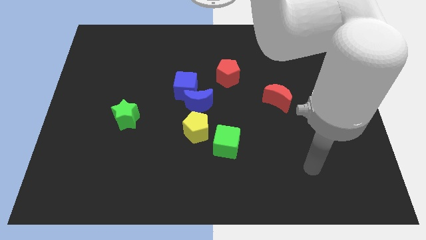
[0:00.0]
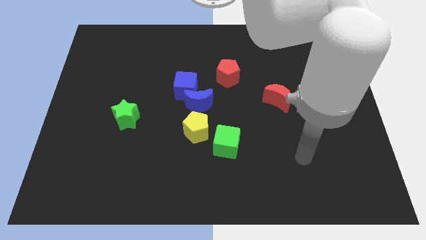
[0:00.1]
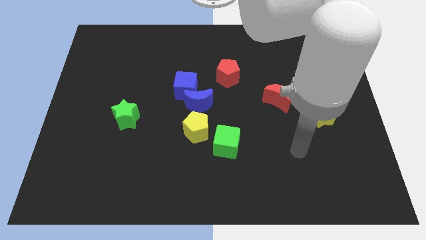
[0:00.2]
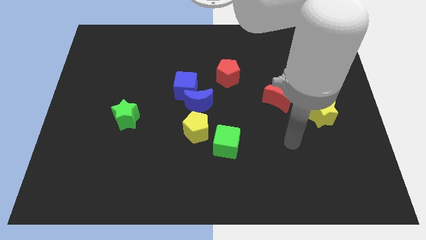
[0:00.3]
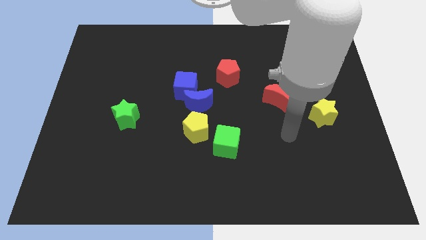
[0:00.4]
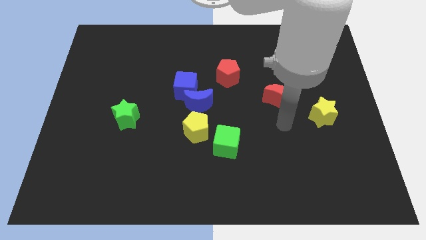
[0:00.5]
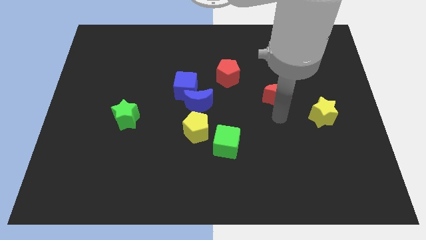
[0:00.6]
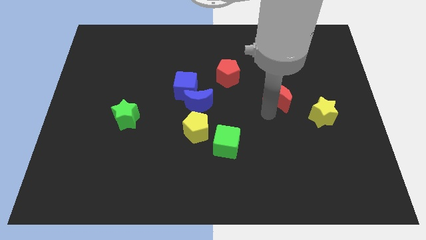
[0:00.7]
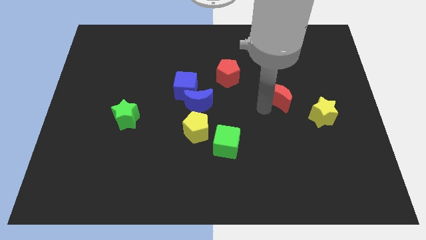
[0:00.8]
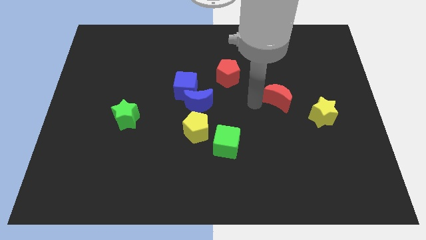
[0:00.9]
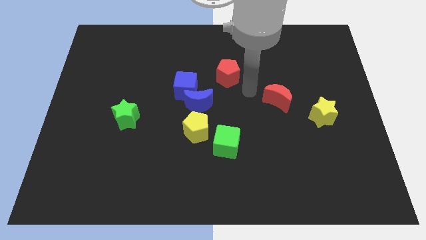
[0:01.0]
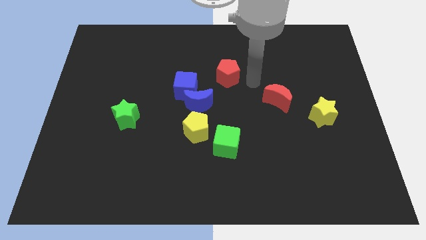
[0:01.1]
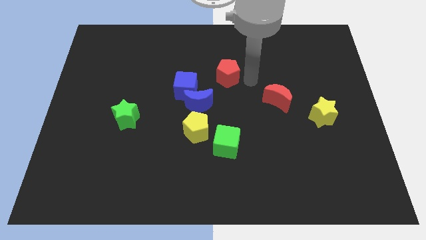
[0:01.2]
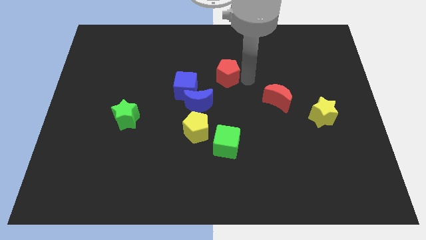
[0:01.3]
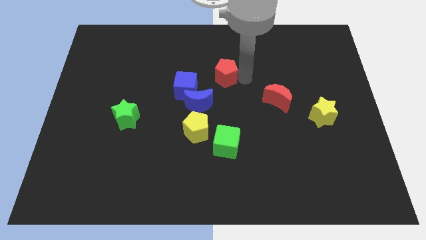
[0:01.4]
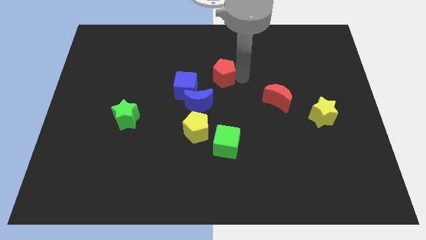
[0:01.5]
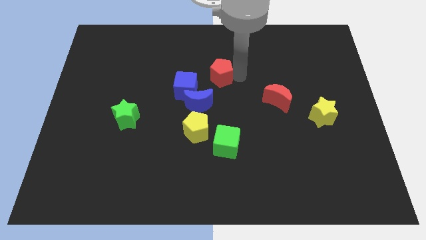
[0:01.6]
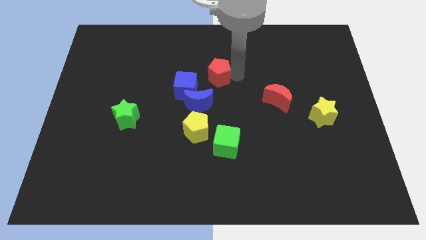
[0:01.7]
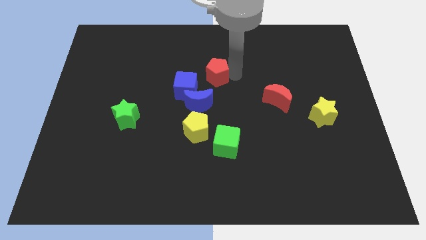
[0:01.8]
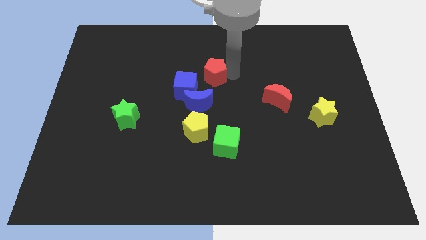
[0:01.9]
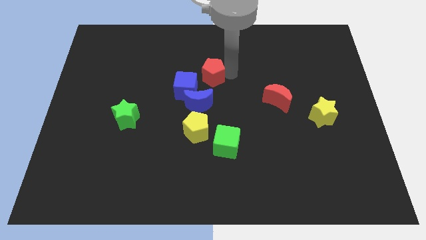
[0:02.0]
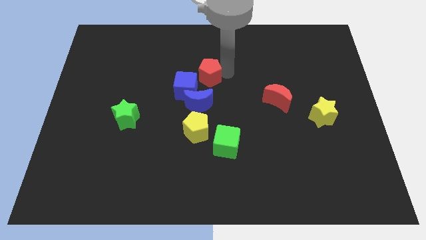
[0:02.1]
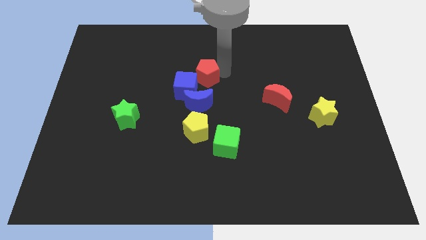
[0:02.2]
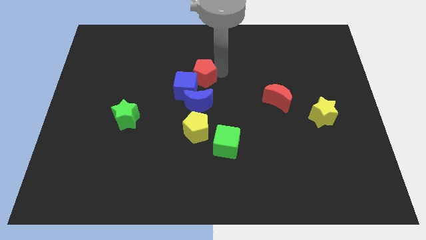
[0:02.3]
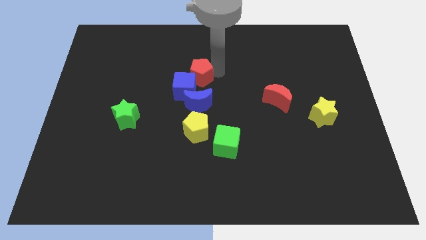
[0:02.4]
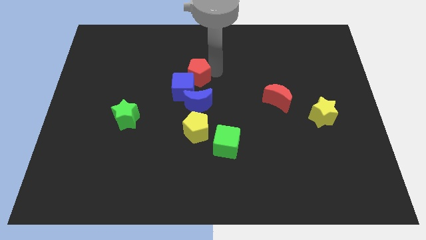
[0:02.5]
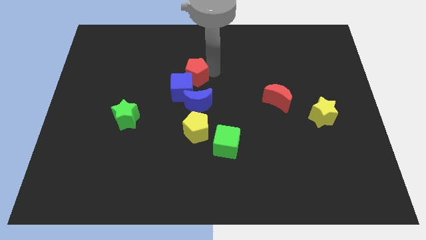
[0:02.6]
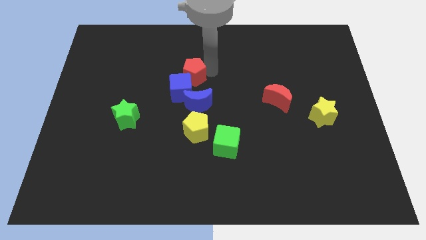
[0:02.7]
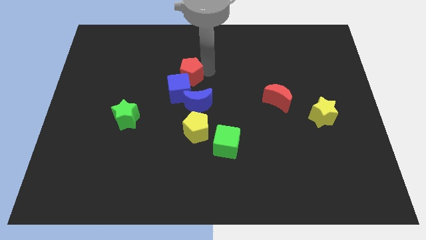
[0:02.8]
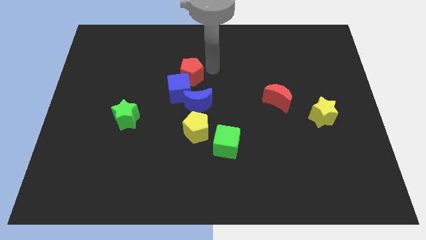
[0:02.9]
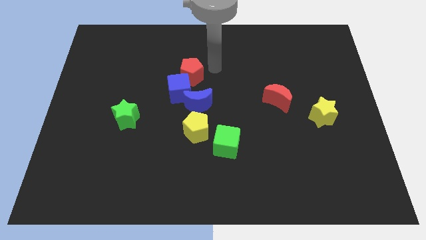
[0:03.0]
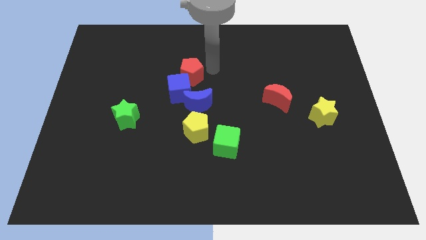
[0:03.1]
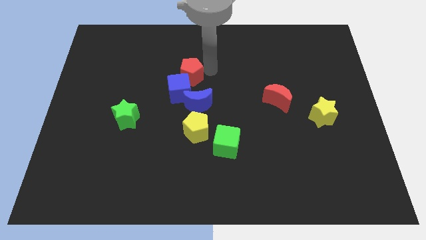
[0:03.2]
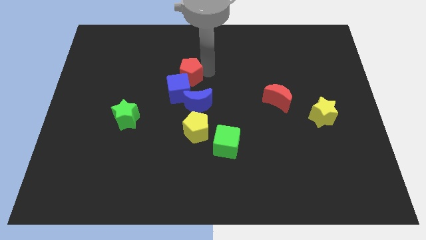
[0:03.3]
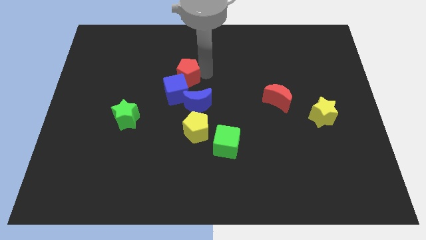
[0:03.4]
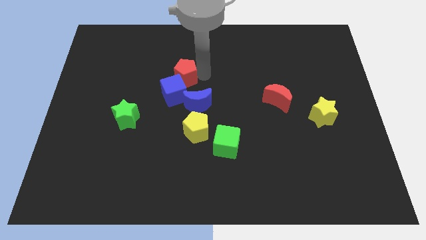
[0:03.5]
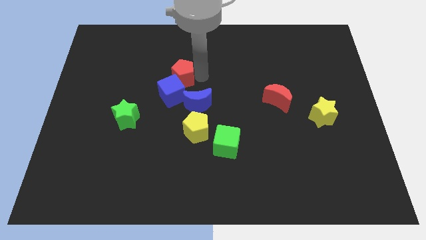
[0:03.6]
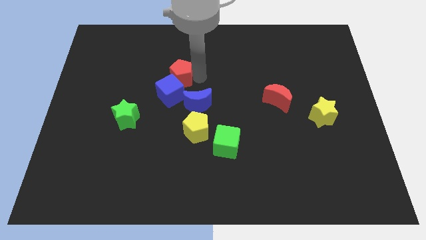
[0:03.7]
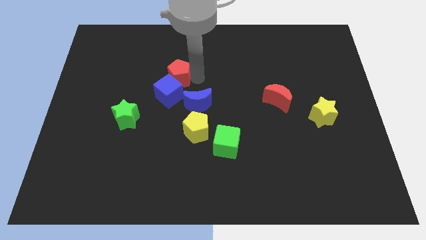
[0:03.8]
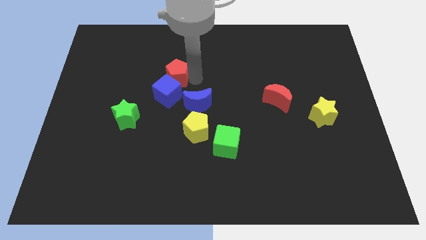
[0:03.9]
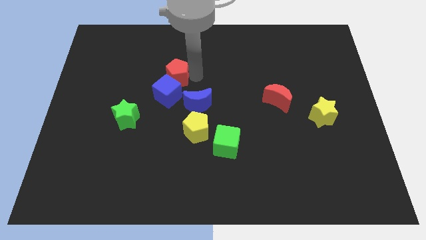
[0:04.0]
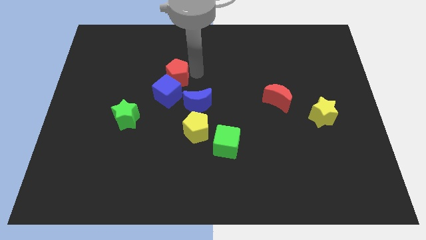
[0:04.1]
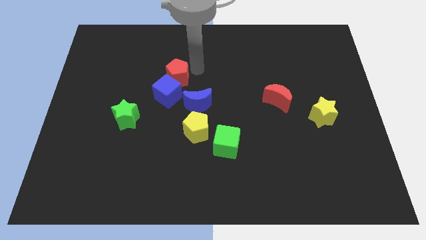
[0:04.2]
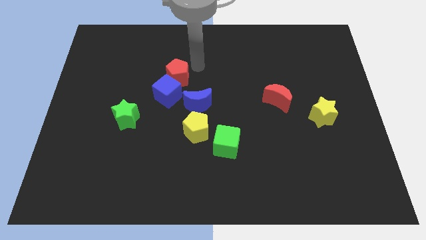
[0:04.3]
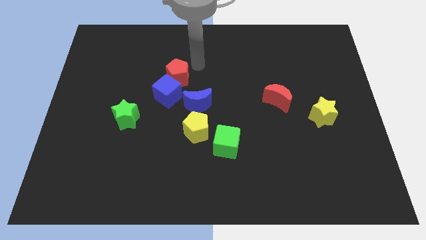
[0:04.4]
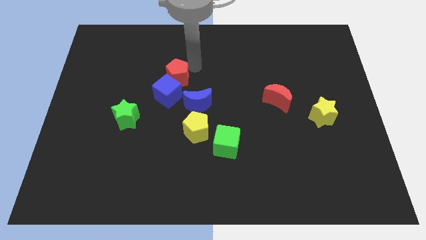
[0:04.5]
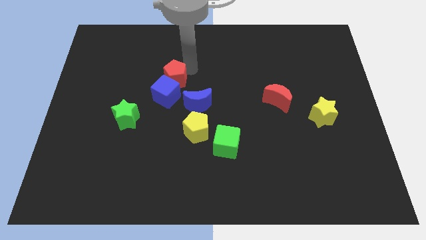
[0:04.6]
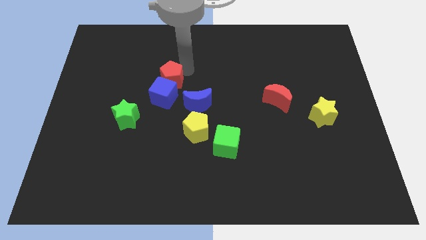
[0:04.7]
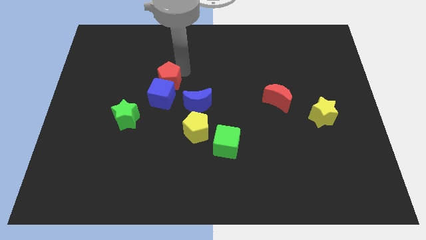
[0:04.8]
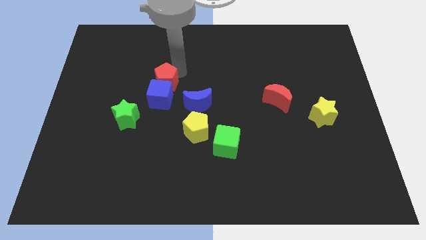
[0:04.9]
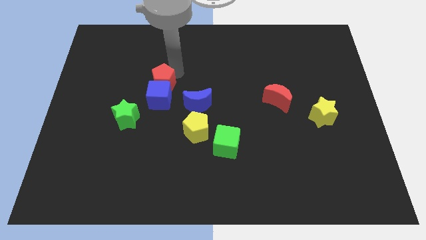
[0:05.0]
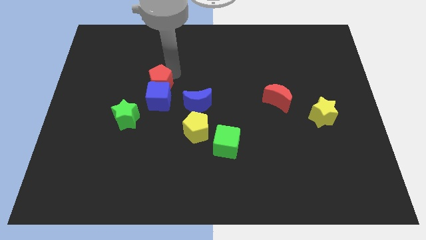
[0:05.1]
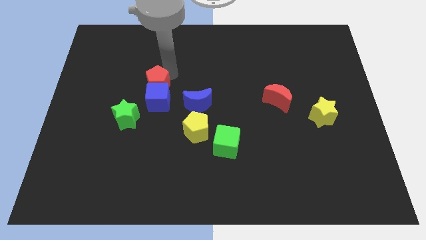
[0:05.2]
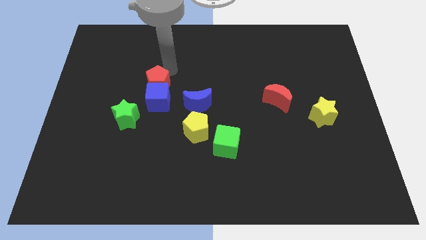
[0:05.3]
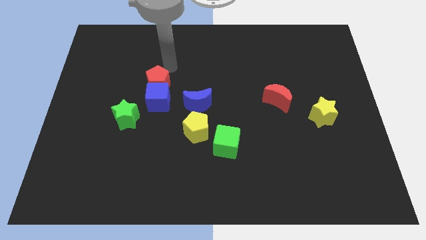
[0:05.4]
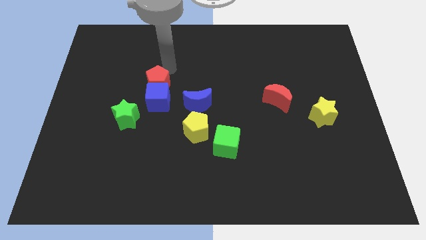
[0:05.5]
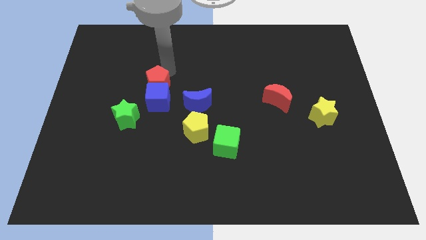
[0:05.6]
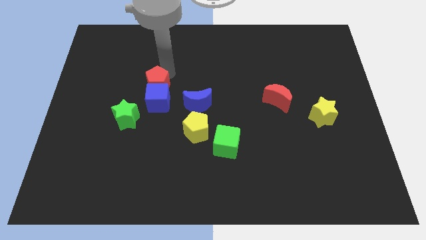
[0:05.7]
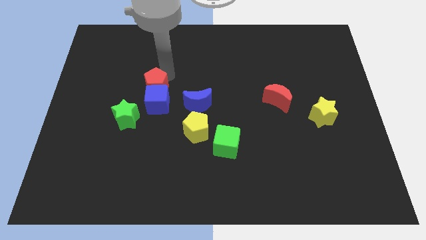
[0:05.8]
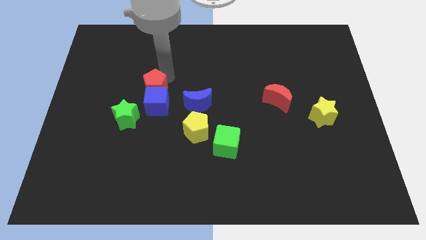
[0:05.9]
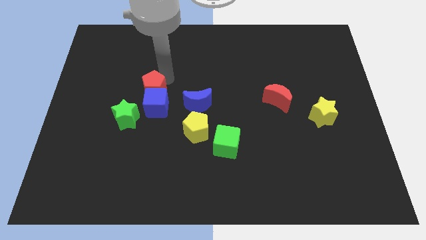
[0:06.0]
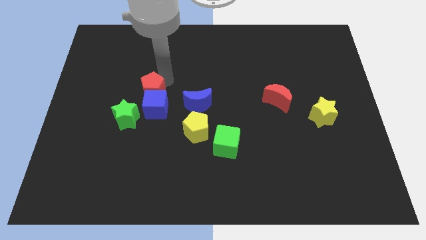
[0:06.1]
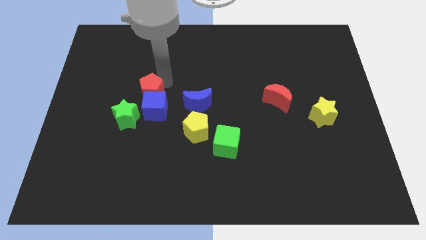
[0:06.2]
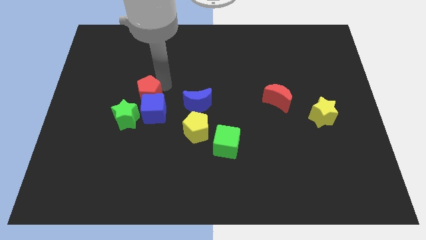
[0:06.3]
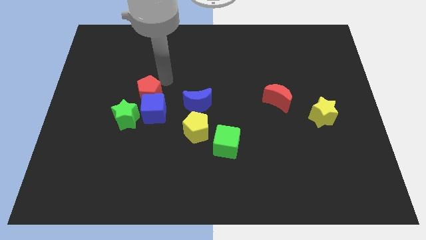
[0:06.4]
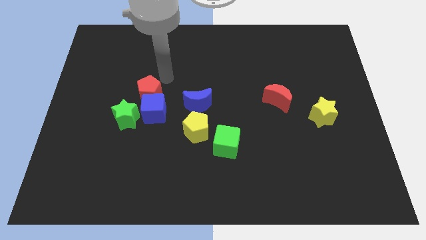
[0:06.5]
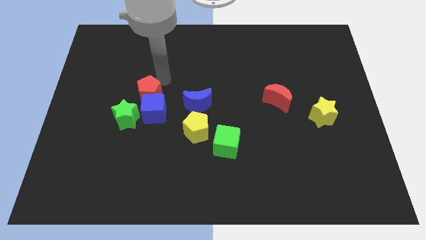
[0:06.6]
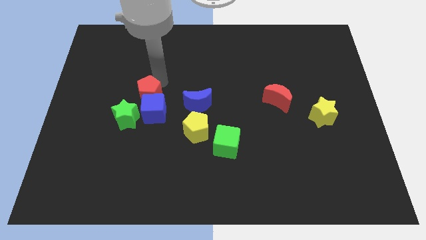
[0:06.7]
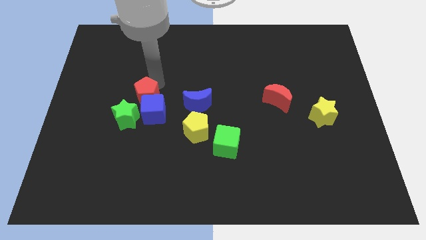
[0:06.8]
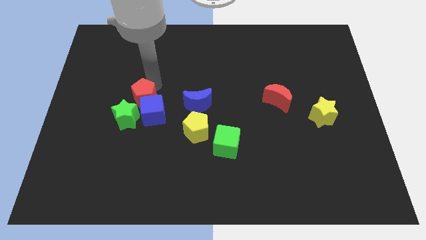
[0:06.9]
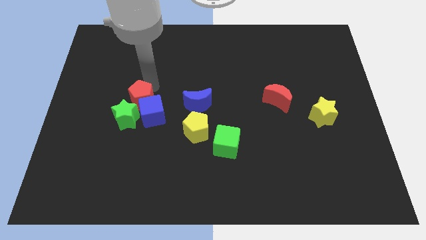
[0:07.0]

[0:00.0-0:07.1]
put the red pentagon towards the green star

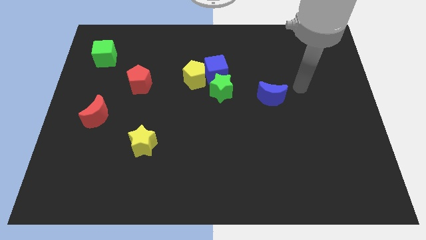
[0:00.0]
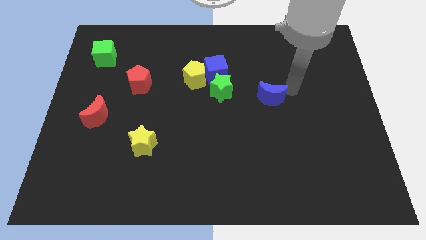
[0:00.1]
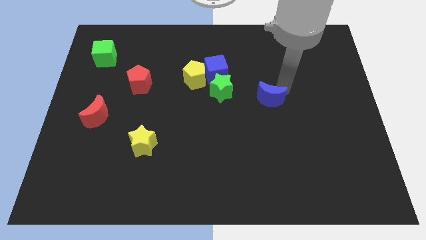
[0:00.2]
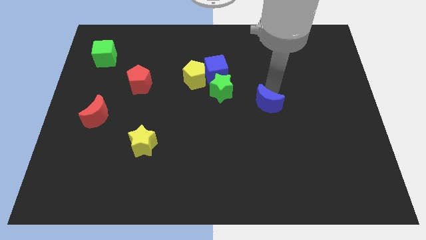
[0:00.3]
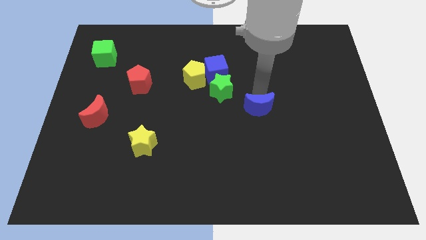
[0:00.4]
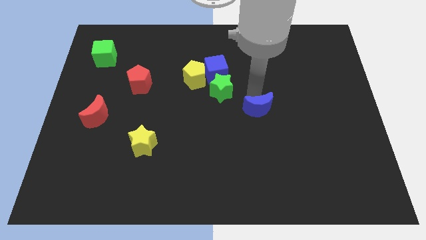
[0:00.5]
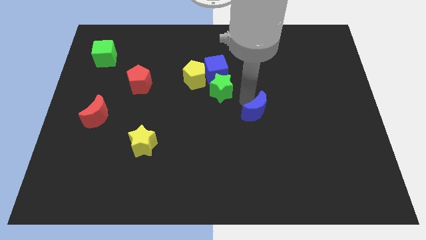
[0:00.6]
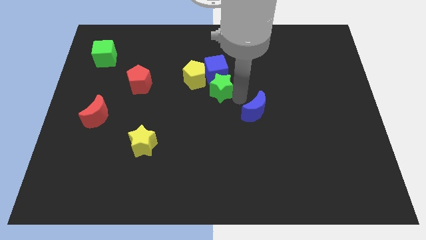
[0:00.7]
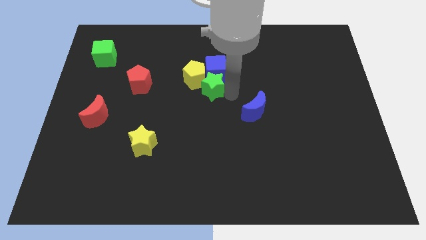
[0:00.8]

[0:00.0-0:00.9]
put the green star close to the yellow pentagon
